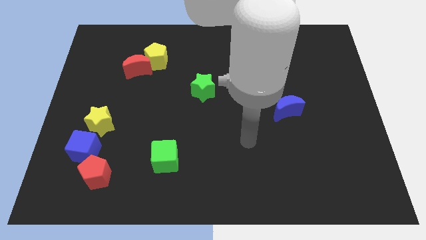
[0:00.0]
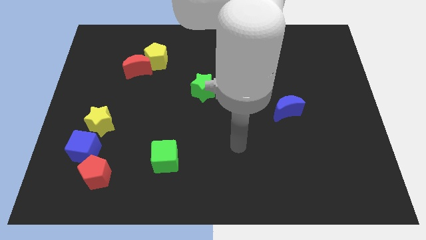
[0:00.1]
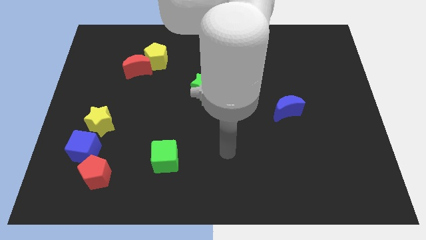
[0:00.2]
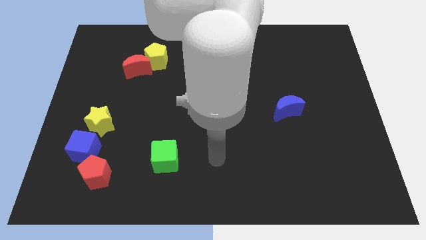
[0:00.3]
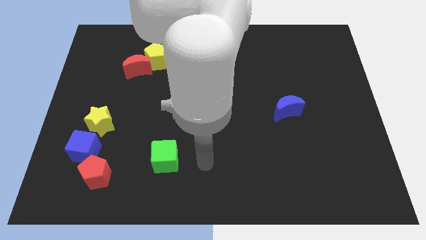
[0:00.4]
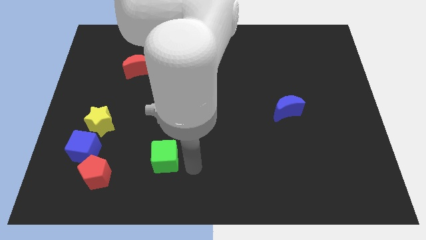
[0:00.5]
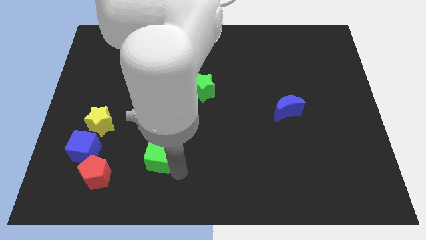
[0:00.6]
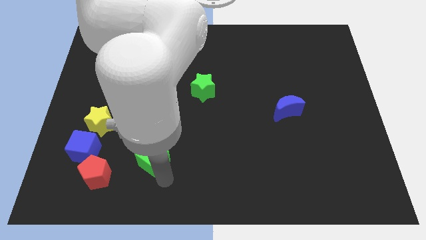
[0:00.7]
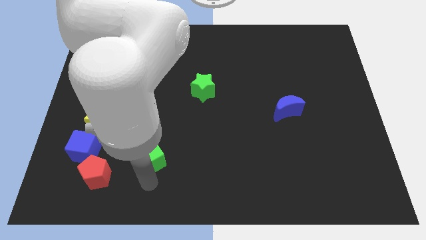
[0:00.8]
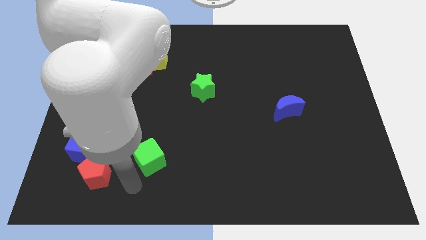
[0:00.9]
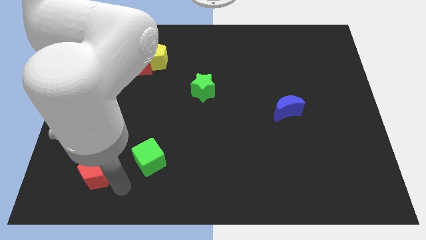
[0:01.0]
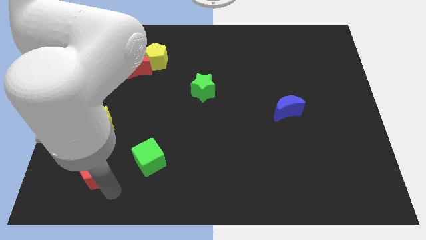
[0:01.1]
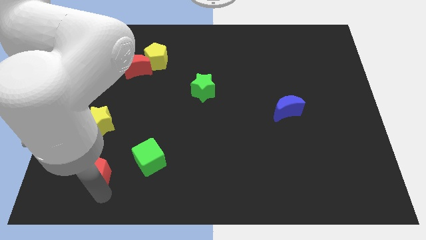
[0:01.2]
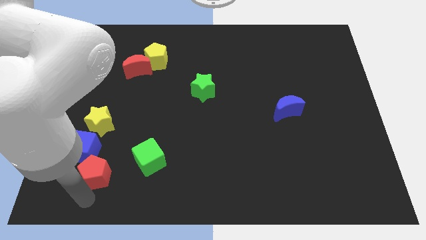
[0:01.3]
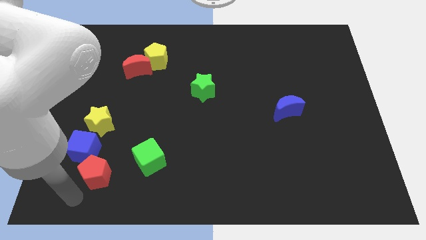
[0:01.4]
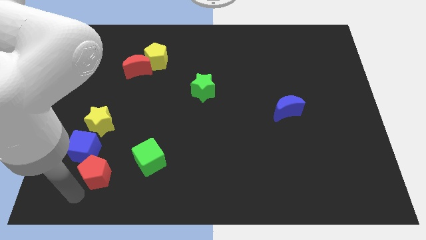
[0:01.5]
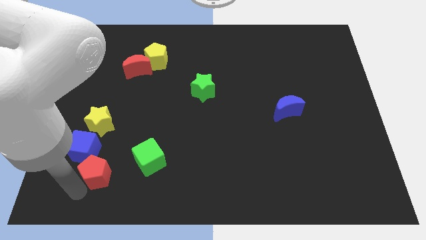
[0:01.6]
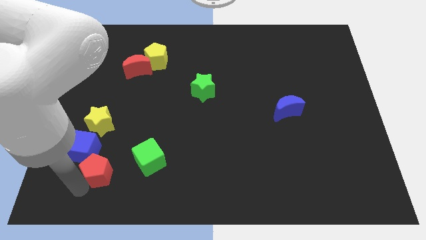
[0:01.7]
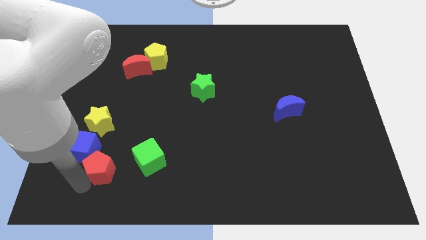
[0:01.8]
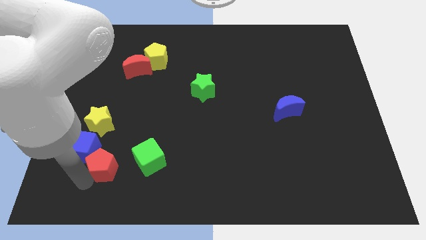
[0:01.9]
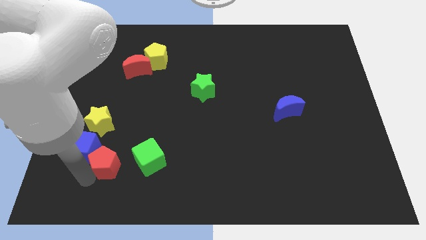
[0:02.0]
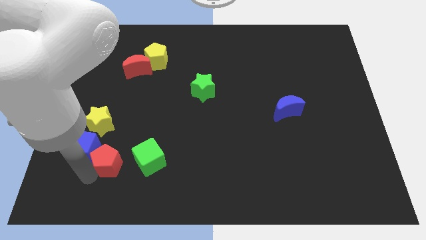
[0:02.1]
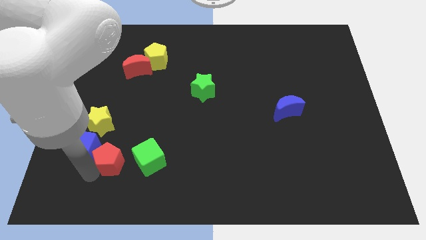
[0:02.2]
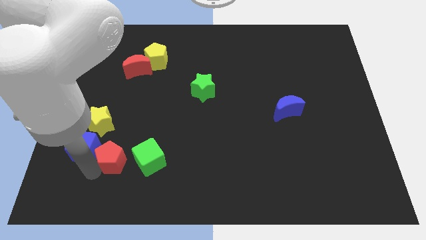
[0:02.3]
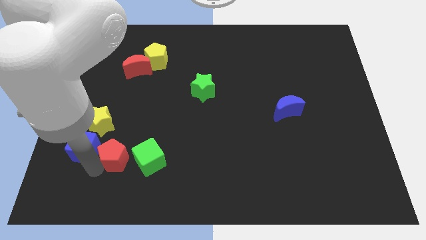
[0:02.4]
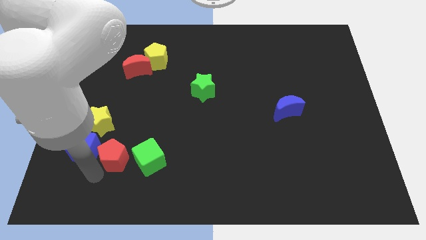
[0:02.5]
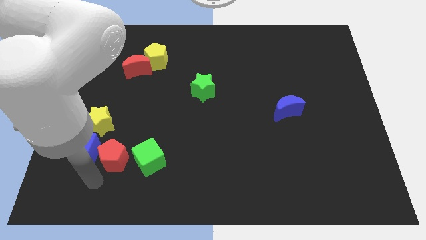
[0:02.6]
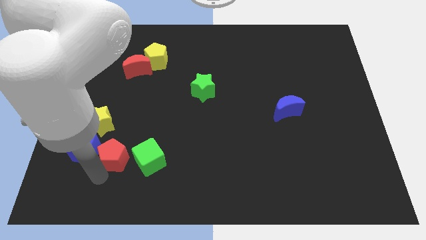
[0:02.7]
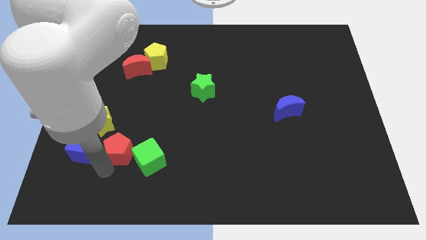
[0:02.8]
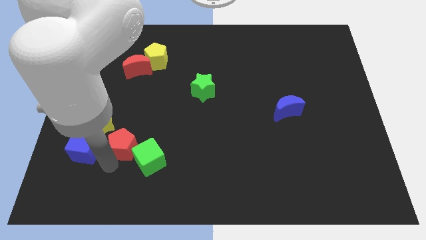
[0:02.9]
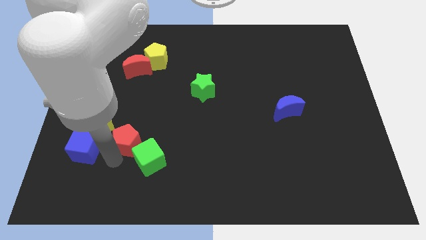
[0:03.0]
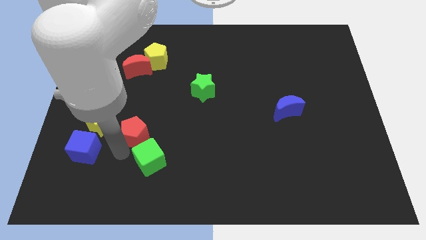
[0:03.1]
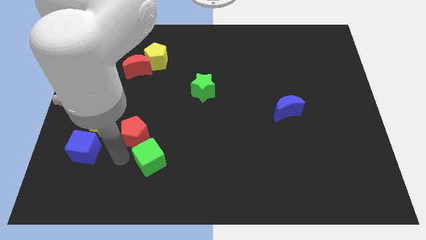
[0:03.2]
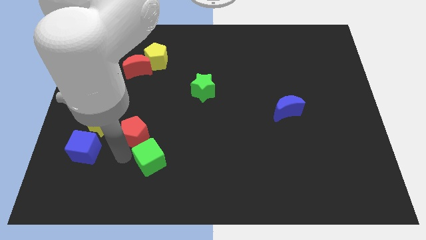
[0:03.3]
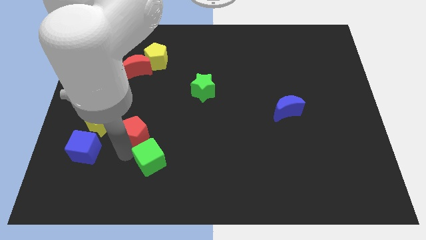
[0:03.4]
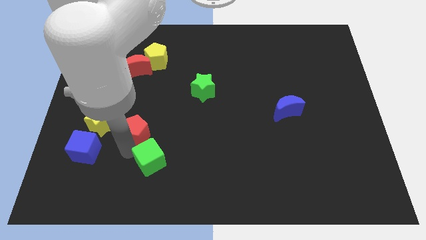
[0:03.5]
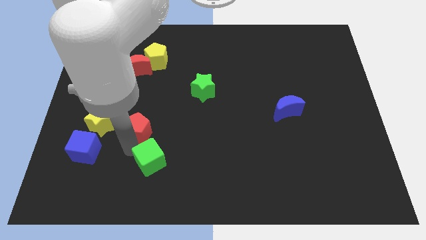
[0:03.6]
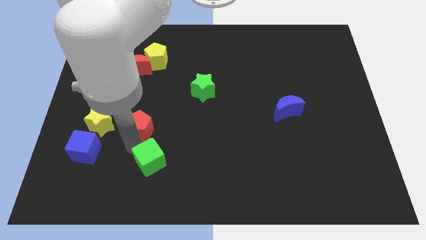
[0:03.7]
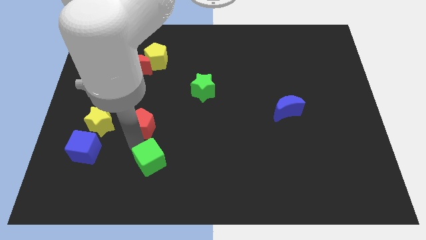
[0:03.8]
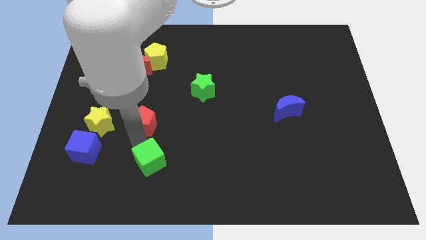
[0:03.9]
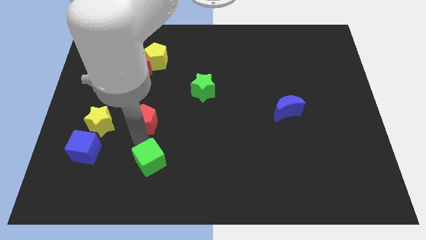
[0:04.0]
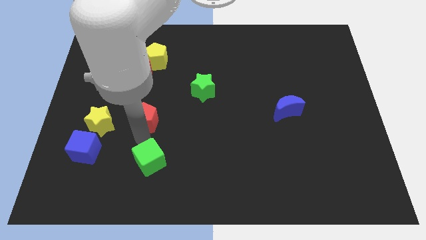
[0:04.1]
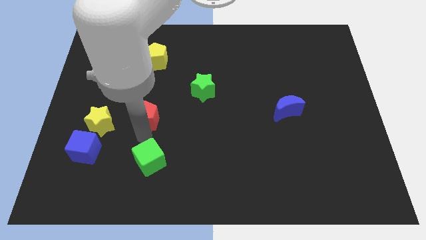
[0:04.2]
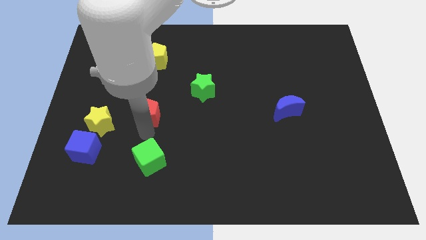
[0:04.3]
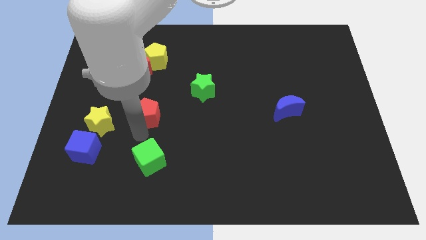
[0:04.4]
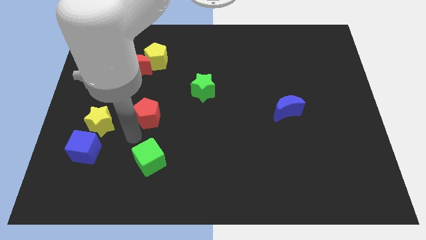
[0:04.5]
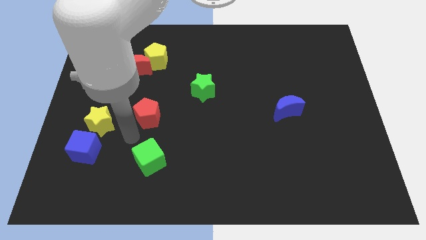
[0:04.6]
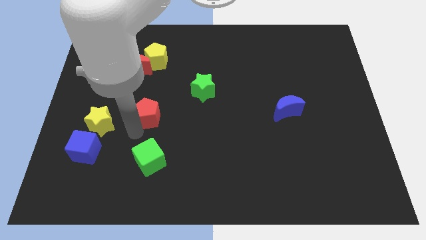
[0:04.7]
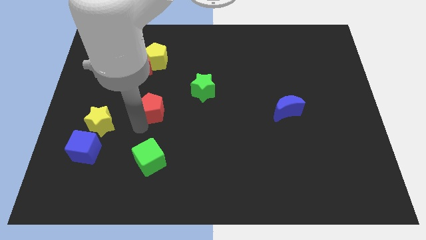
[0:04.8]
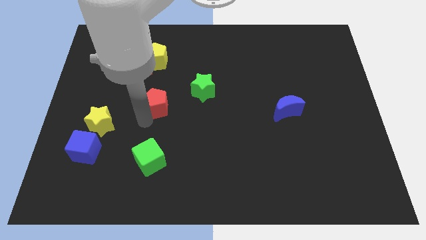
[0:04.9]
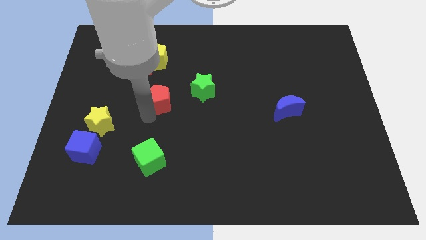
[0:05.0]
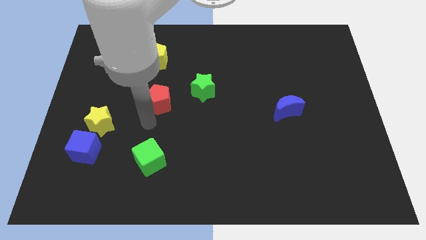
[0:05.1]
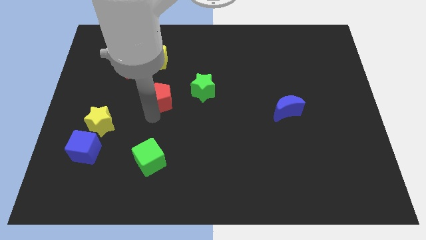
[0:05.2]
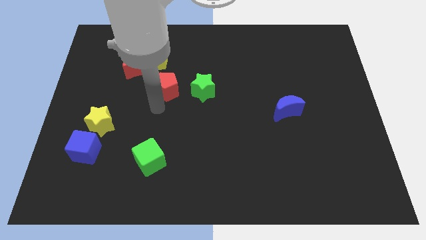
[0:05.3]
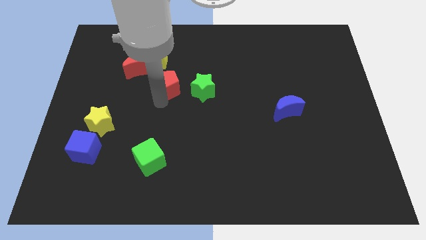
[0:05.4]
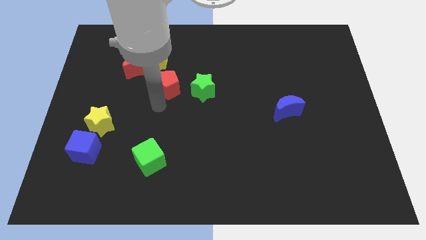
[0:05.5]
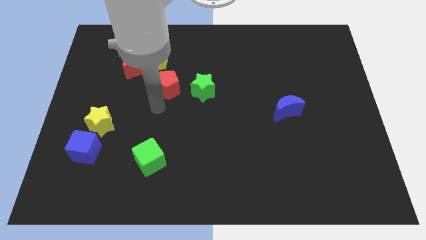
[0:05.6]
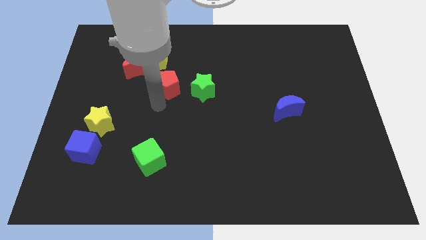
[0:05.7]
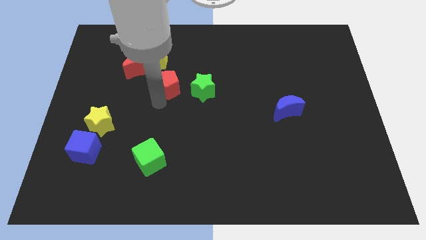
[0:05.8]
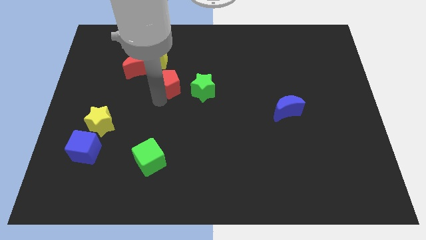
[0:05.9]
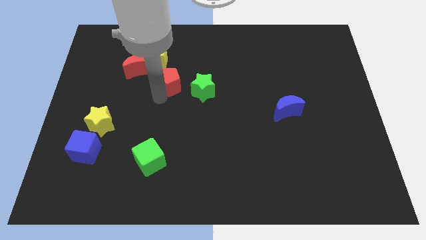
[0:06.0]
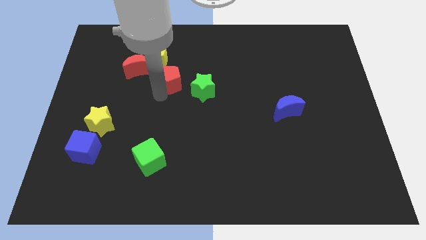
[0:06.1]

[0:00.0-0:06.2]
slide the red pentagon just right of the red moon

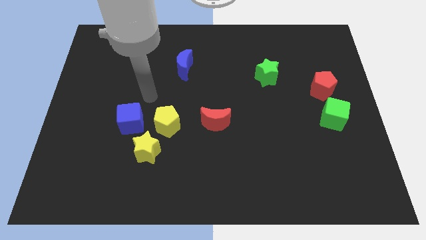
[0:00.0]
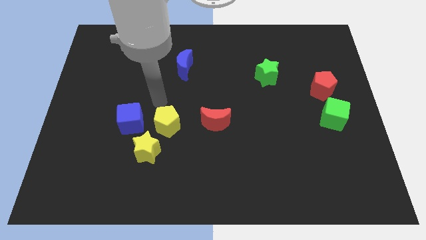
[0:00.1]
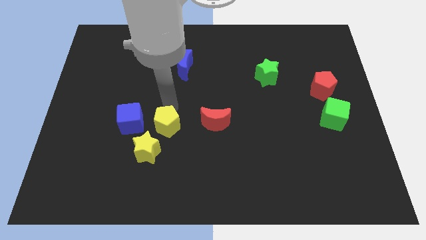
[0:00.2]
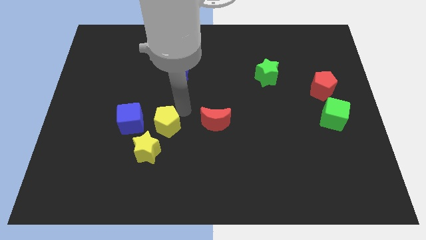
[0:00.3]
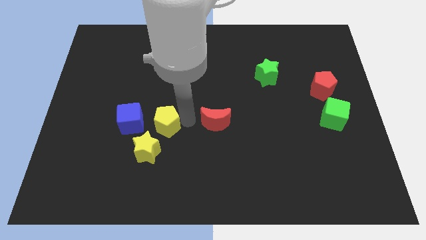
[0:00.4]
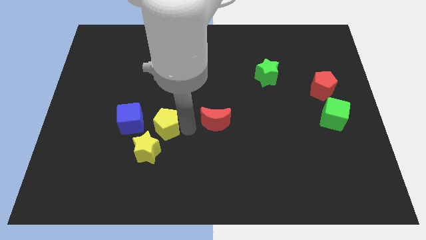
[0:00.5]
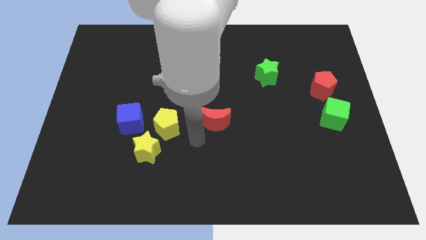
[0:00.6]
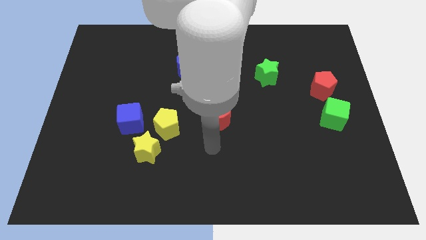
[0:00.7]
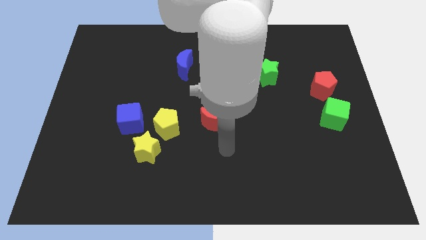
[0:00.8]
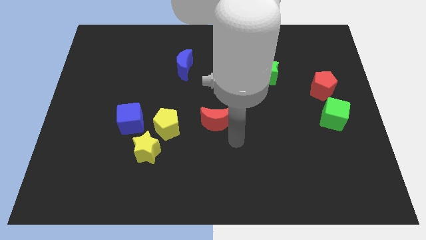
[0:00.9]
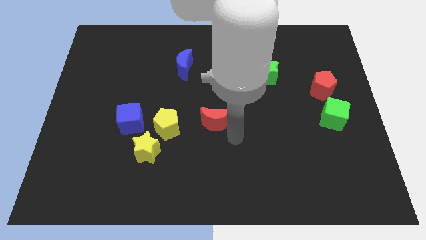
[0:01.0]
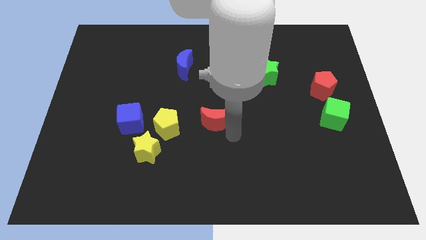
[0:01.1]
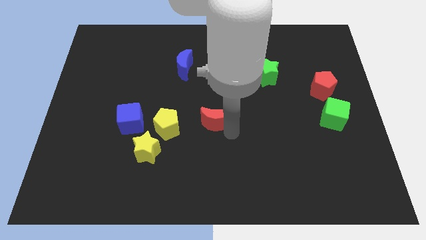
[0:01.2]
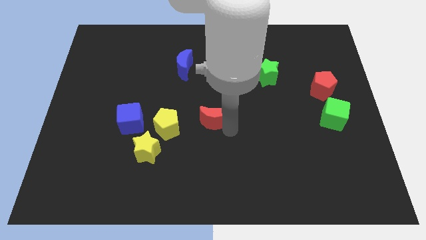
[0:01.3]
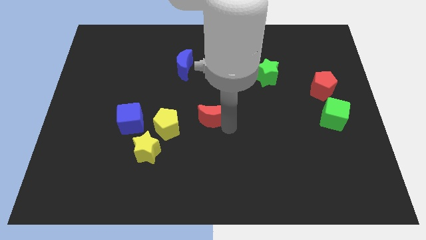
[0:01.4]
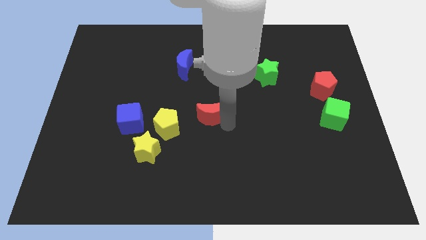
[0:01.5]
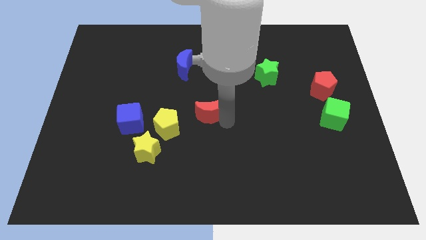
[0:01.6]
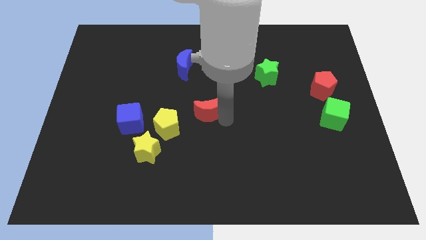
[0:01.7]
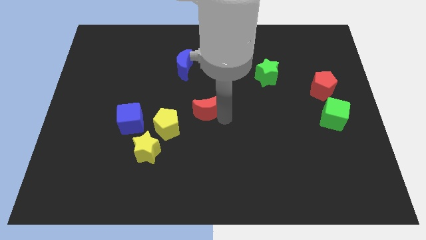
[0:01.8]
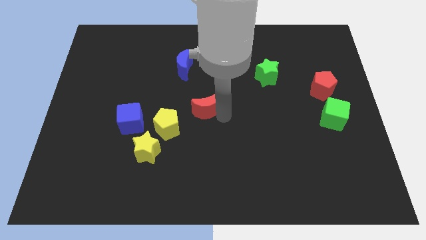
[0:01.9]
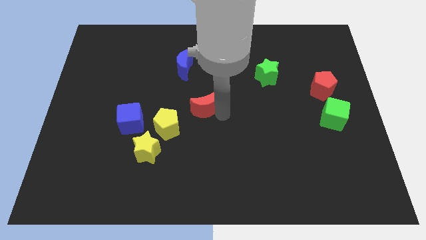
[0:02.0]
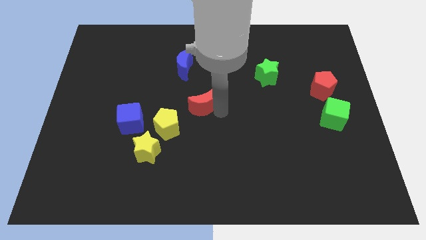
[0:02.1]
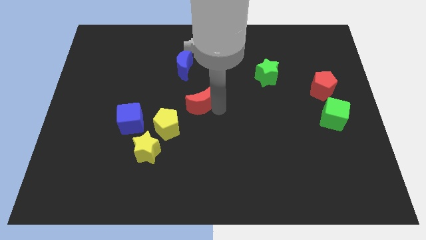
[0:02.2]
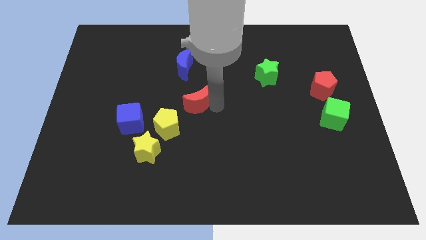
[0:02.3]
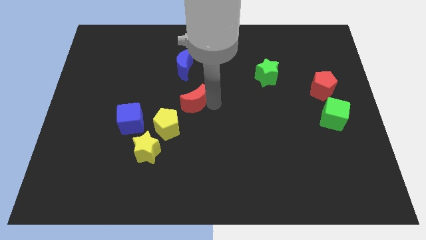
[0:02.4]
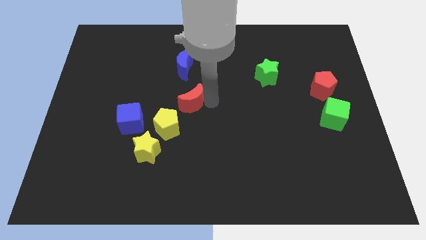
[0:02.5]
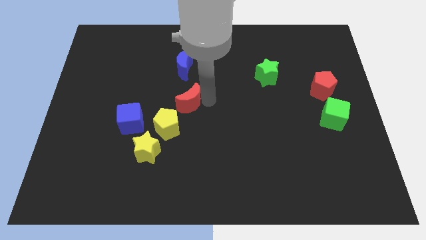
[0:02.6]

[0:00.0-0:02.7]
move the red moon to the top side of the yellow pentagon
